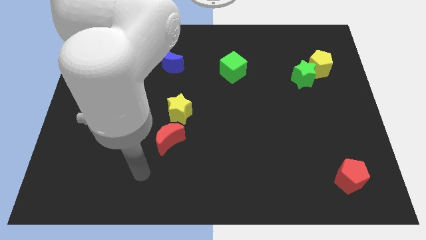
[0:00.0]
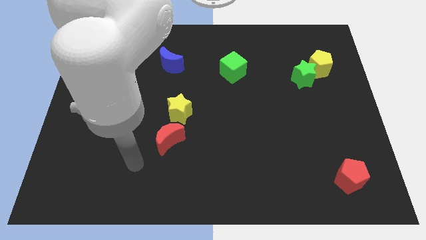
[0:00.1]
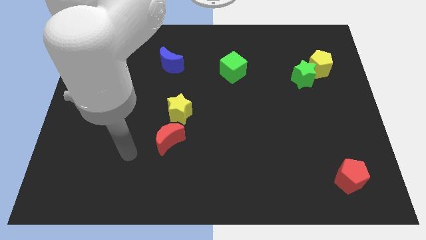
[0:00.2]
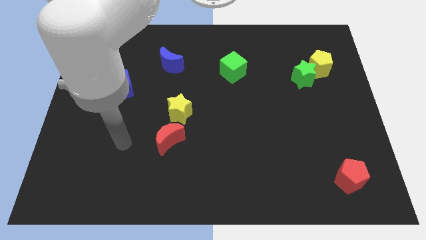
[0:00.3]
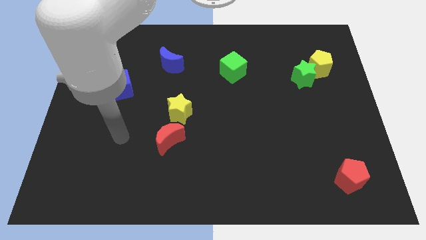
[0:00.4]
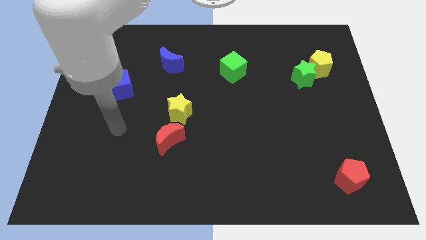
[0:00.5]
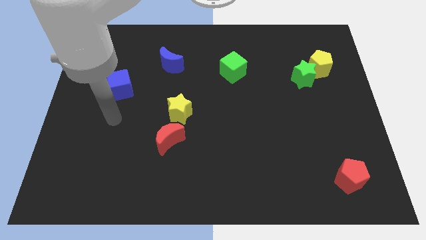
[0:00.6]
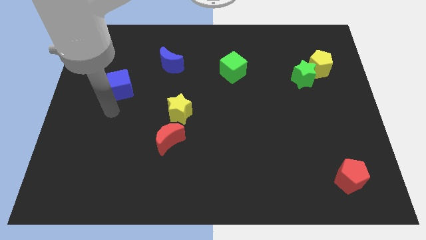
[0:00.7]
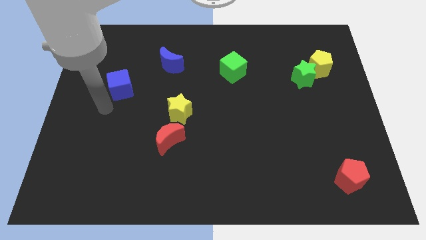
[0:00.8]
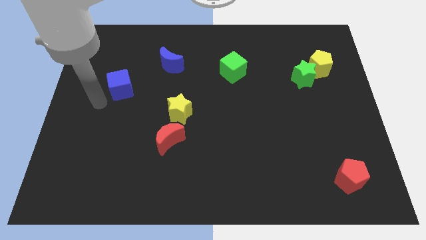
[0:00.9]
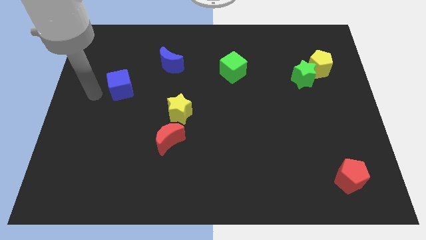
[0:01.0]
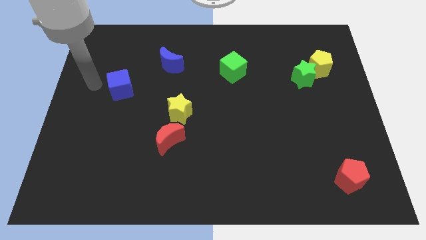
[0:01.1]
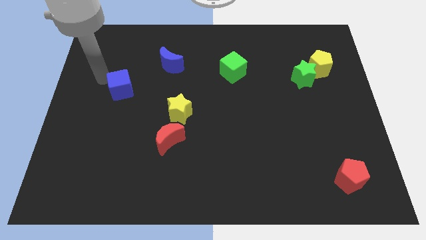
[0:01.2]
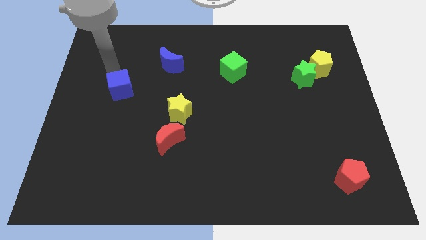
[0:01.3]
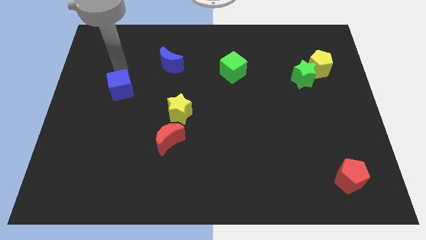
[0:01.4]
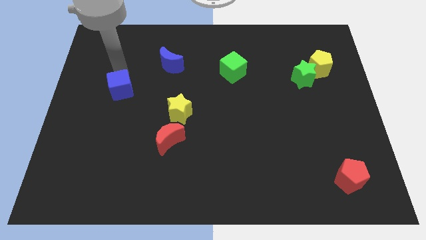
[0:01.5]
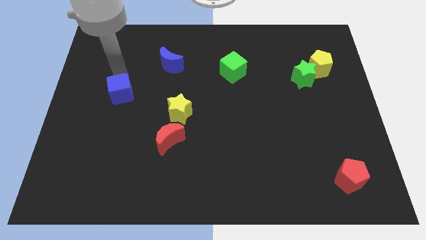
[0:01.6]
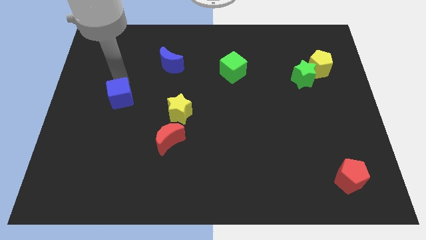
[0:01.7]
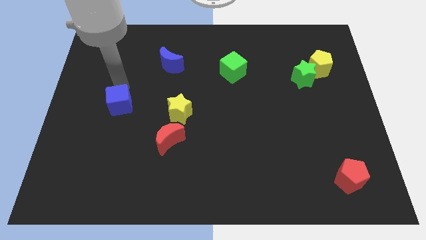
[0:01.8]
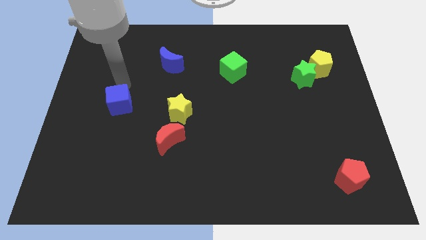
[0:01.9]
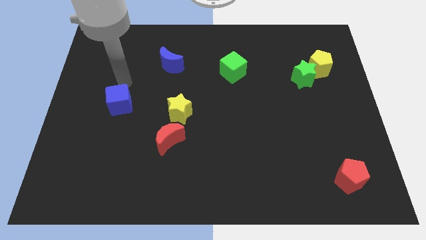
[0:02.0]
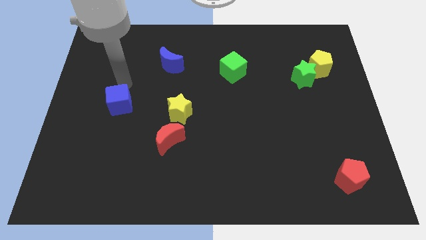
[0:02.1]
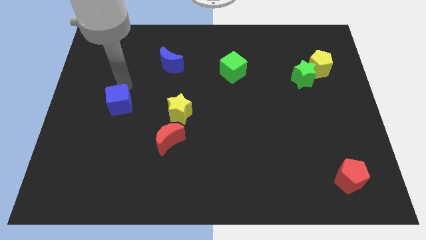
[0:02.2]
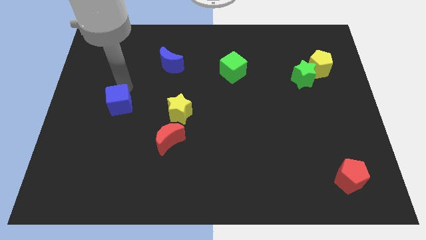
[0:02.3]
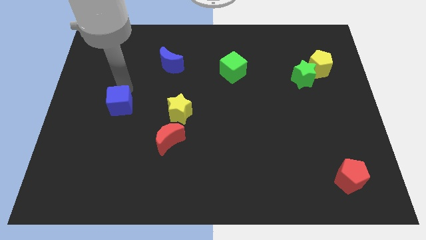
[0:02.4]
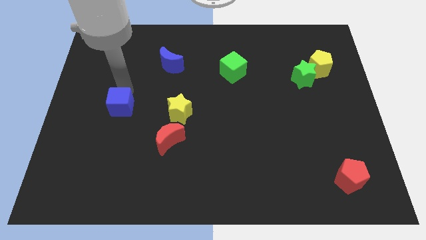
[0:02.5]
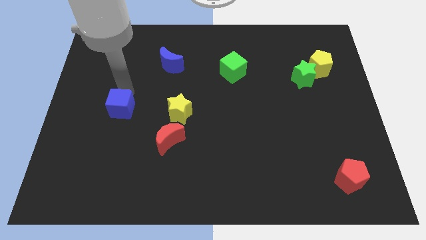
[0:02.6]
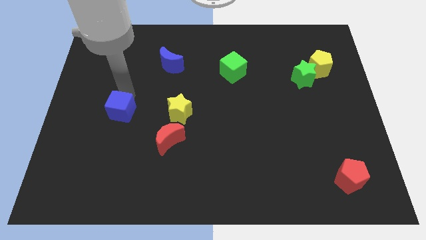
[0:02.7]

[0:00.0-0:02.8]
move the blue cube down slightly

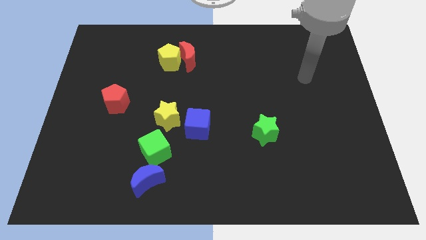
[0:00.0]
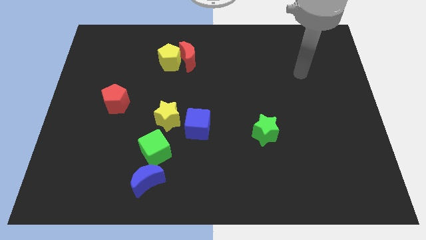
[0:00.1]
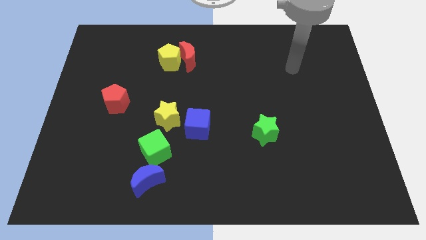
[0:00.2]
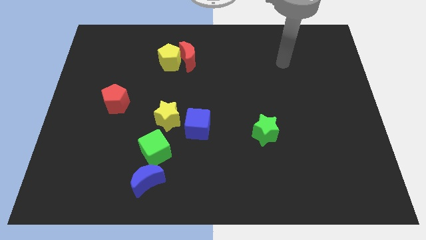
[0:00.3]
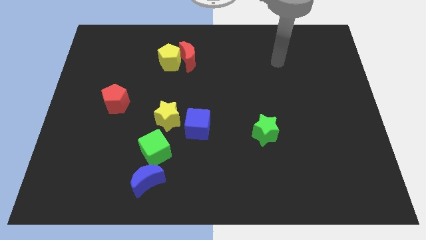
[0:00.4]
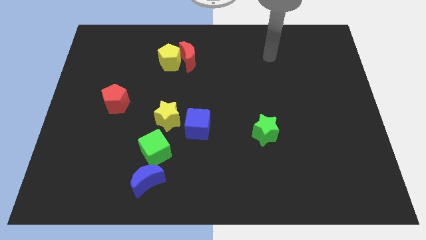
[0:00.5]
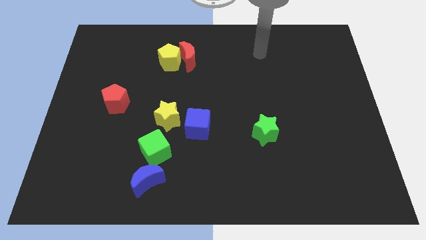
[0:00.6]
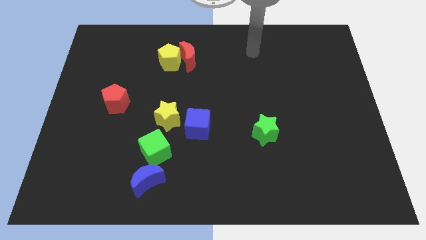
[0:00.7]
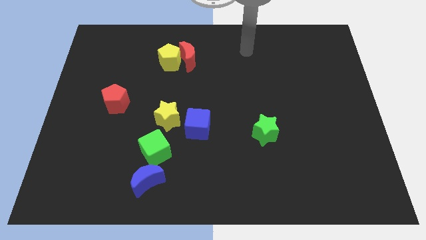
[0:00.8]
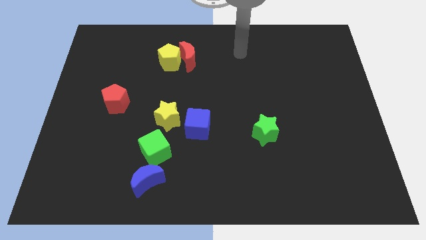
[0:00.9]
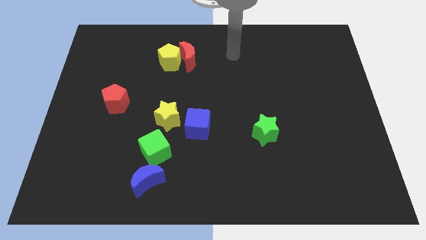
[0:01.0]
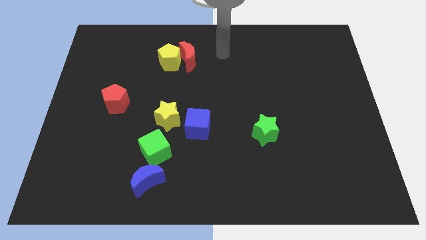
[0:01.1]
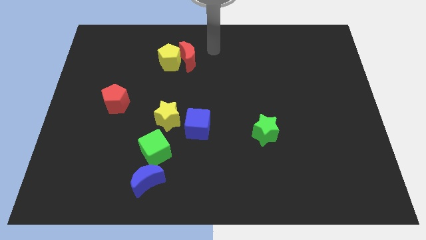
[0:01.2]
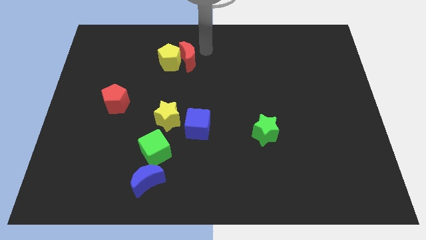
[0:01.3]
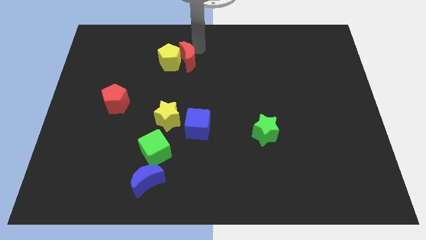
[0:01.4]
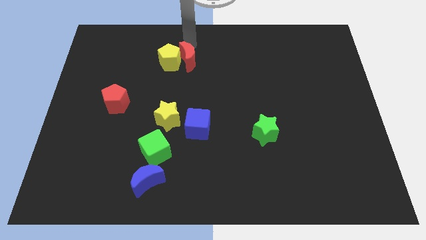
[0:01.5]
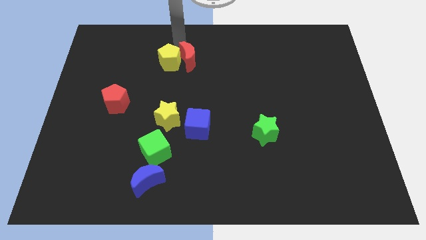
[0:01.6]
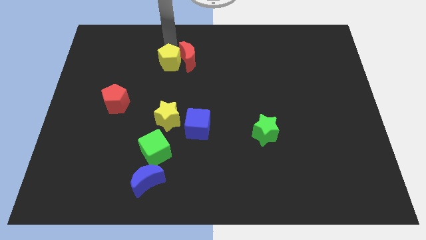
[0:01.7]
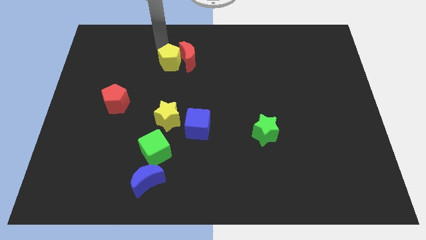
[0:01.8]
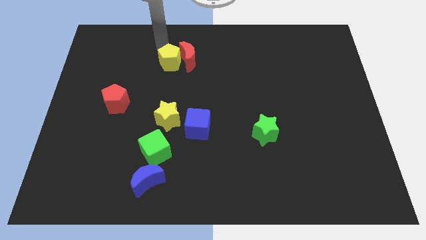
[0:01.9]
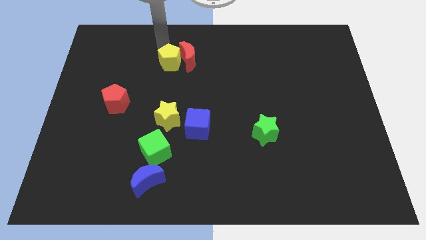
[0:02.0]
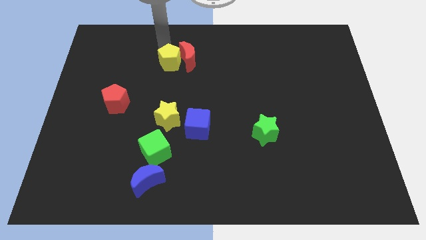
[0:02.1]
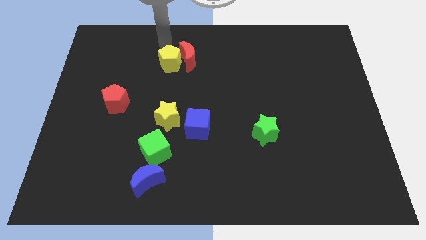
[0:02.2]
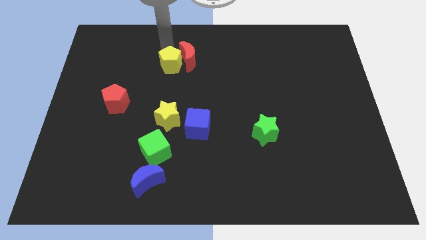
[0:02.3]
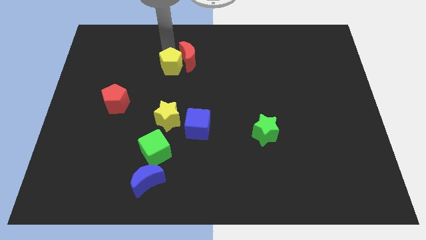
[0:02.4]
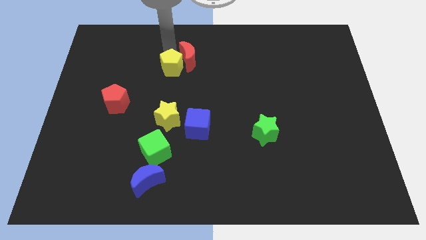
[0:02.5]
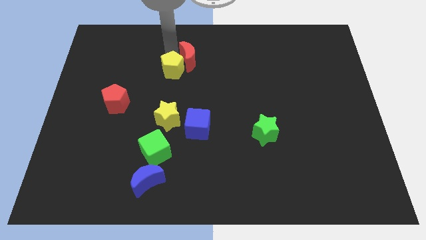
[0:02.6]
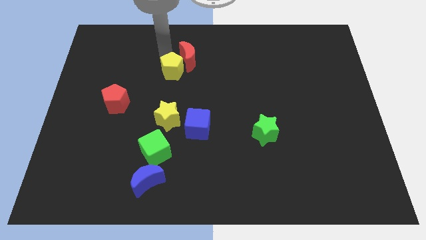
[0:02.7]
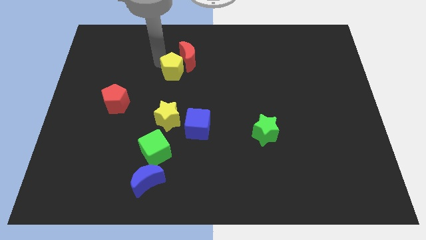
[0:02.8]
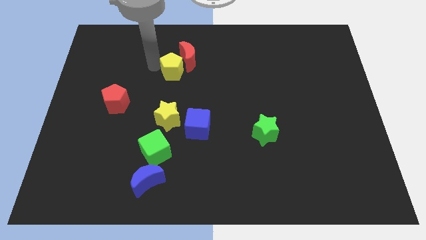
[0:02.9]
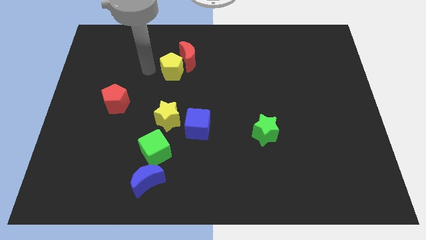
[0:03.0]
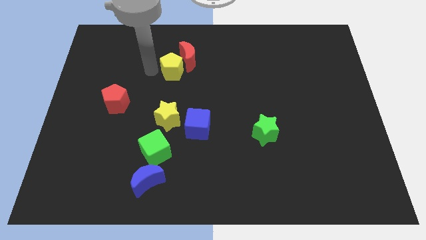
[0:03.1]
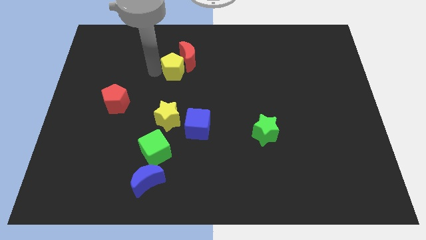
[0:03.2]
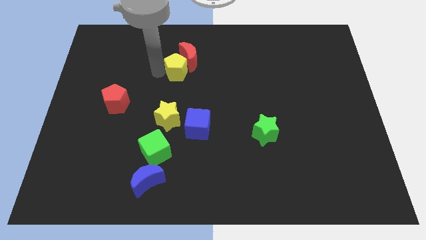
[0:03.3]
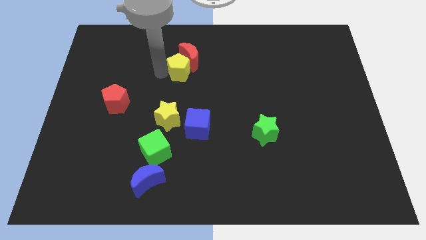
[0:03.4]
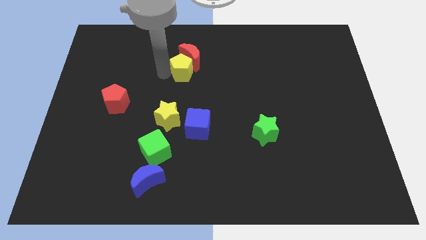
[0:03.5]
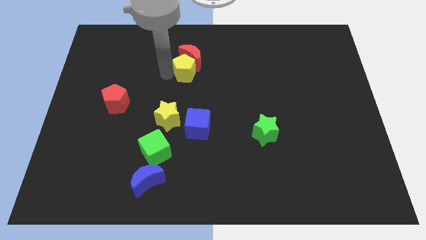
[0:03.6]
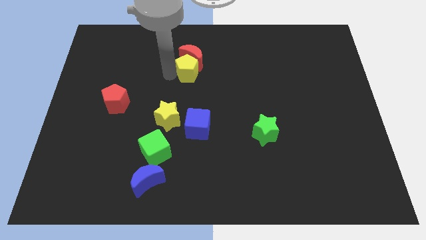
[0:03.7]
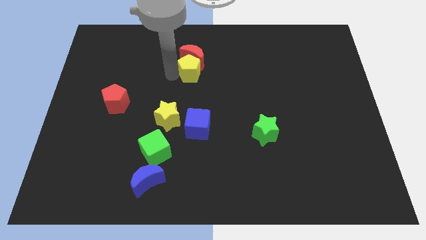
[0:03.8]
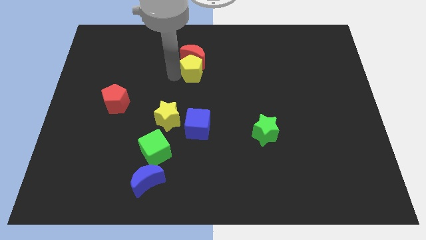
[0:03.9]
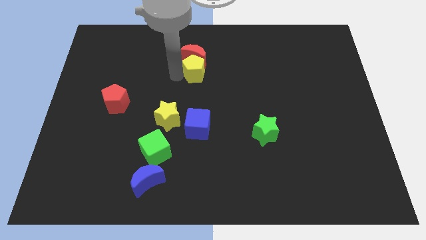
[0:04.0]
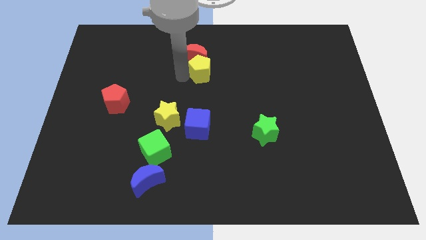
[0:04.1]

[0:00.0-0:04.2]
push the yellow pentagon right somewhat

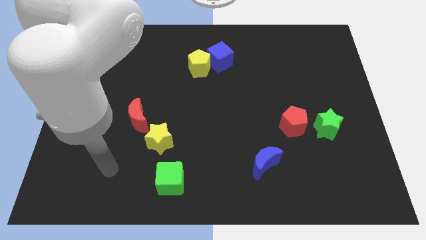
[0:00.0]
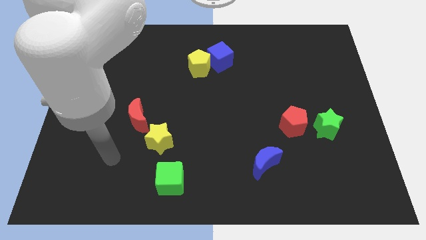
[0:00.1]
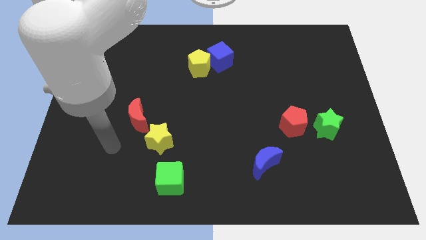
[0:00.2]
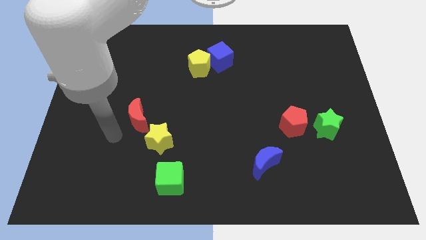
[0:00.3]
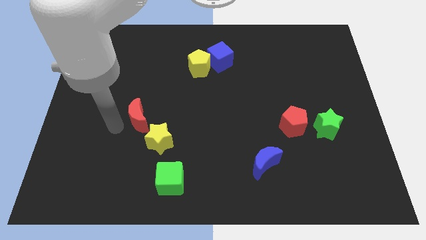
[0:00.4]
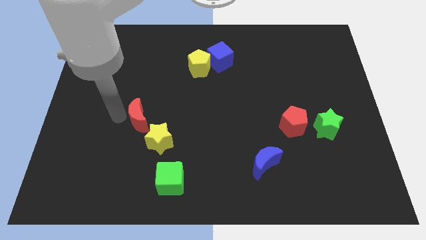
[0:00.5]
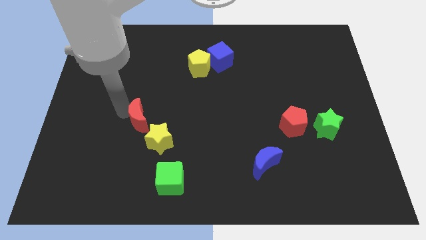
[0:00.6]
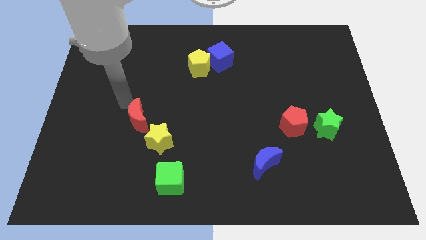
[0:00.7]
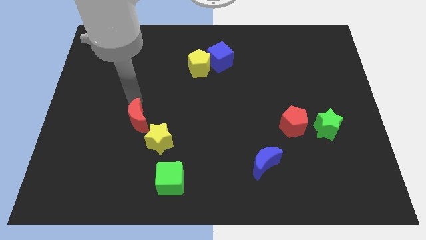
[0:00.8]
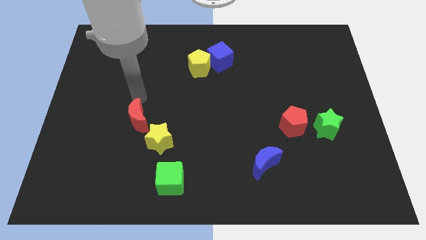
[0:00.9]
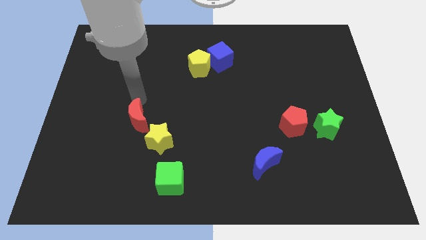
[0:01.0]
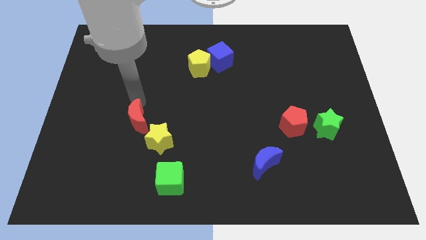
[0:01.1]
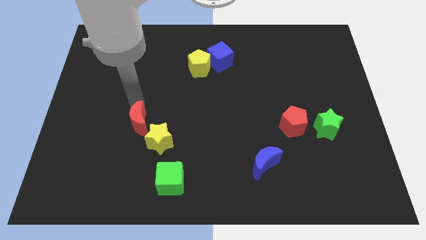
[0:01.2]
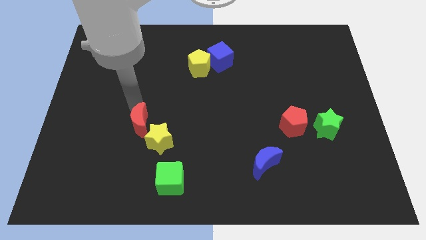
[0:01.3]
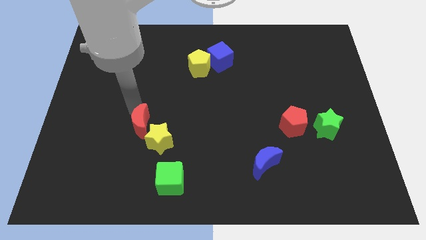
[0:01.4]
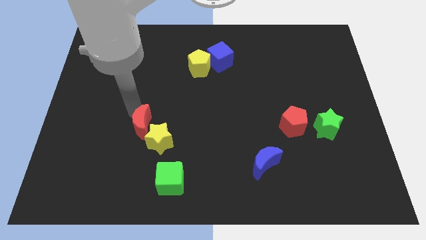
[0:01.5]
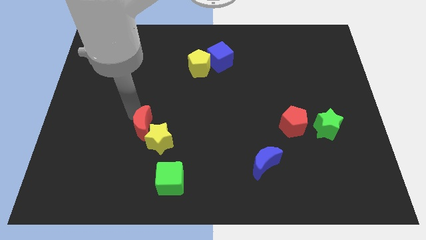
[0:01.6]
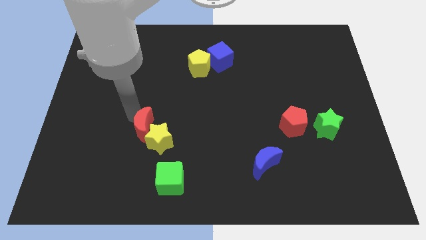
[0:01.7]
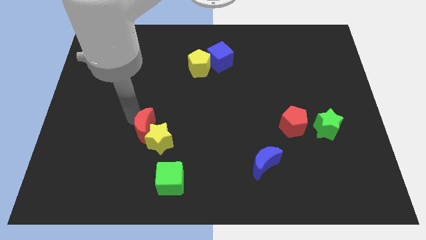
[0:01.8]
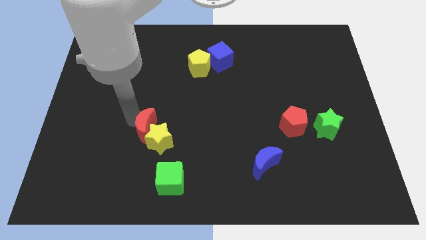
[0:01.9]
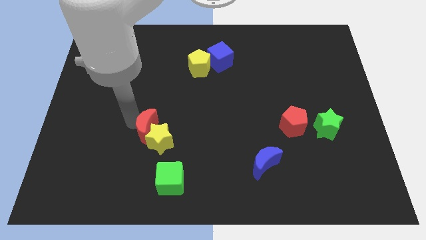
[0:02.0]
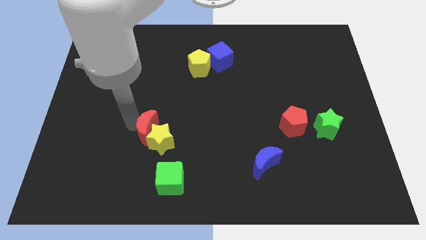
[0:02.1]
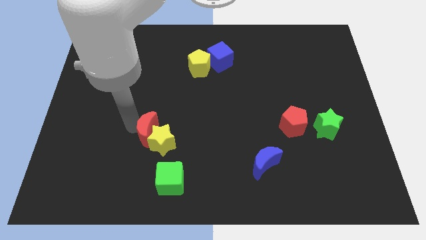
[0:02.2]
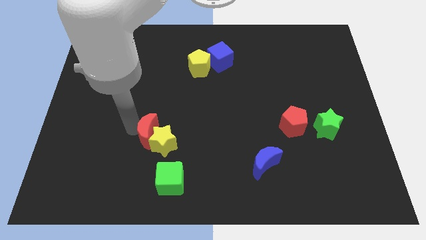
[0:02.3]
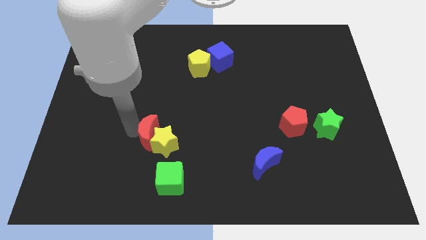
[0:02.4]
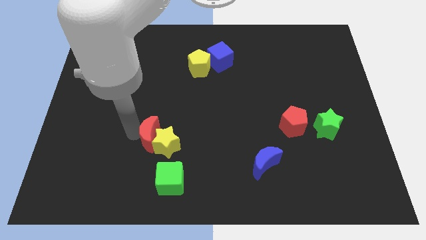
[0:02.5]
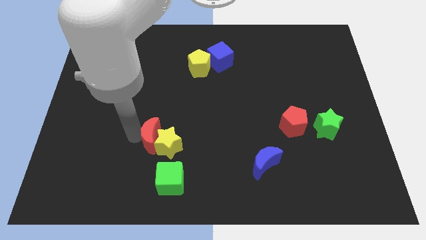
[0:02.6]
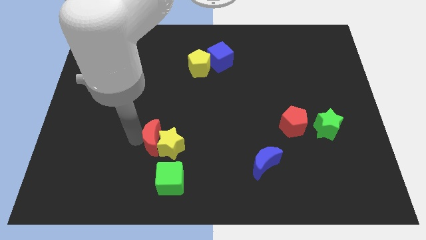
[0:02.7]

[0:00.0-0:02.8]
slide the red moon somewhat diagonally down and right
